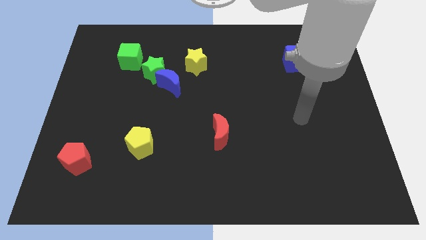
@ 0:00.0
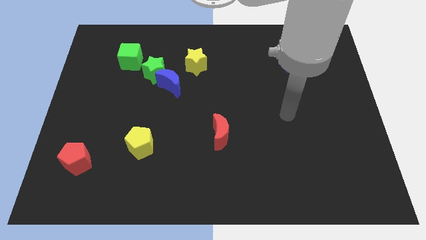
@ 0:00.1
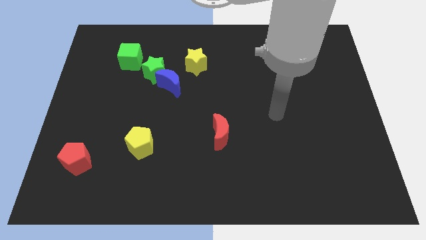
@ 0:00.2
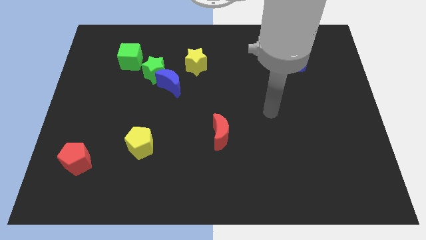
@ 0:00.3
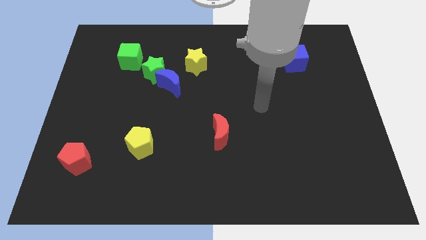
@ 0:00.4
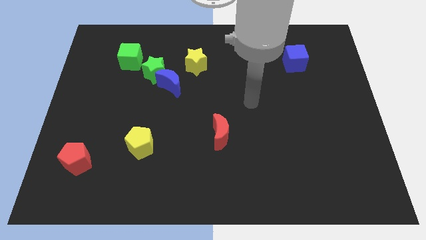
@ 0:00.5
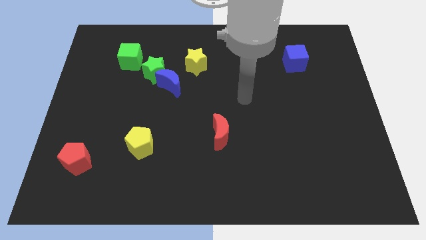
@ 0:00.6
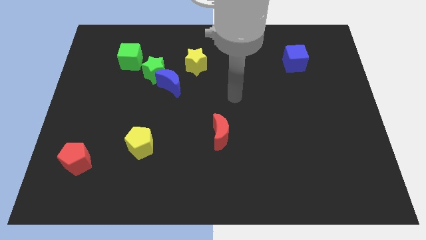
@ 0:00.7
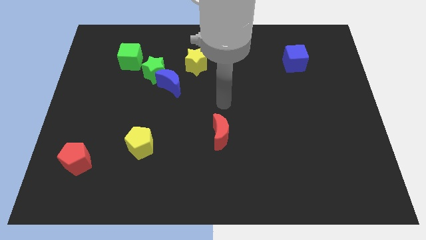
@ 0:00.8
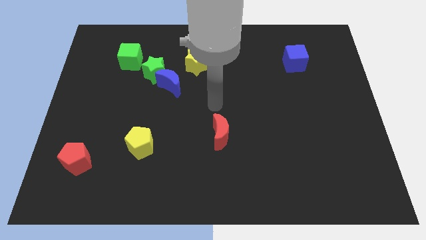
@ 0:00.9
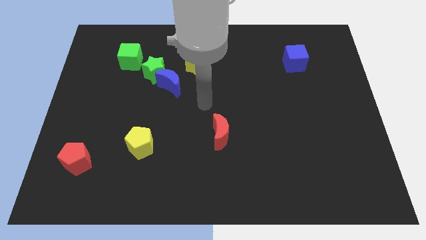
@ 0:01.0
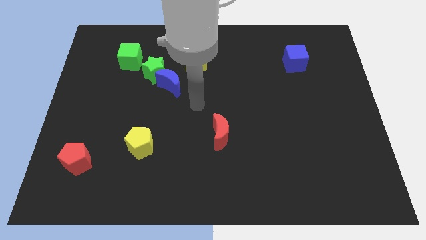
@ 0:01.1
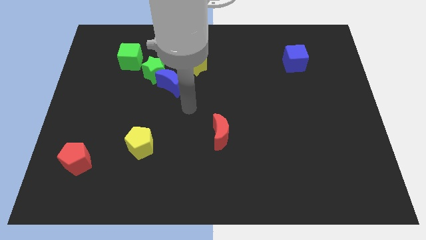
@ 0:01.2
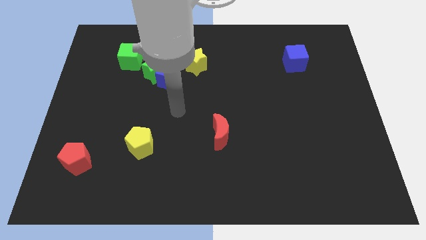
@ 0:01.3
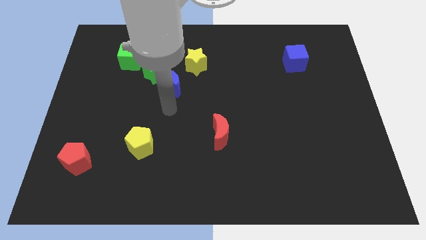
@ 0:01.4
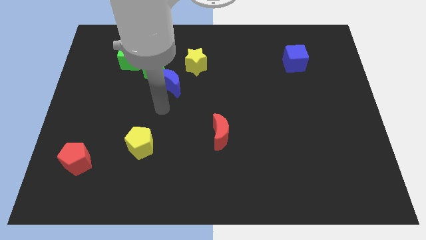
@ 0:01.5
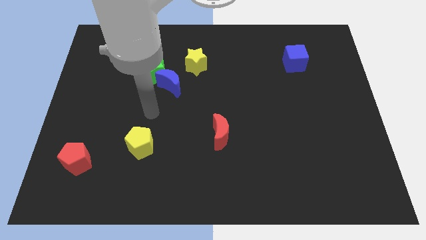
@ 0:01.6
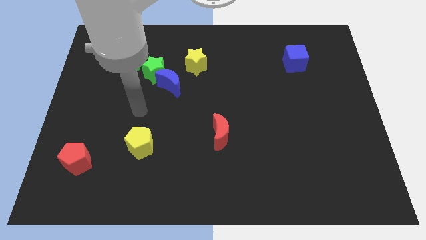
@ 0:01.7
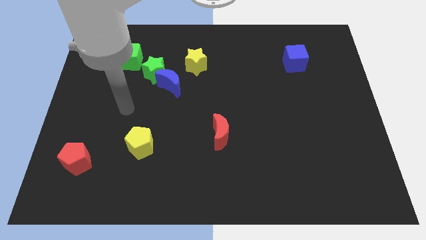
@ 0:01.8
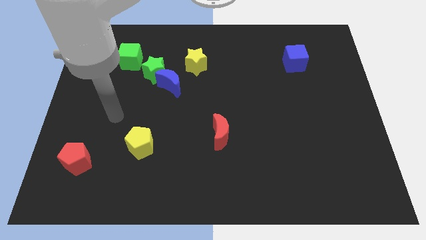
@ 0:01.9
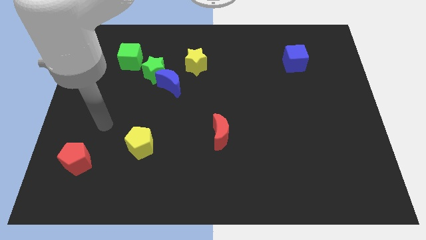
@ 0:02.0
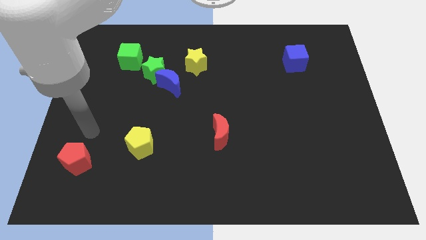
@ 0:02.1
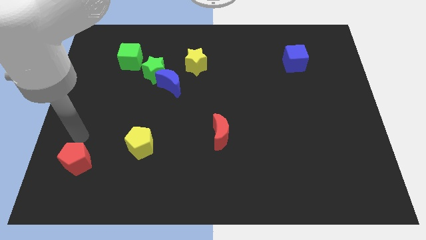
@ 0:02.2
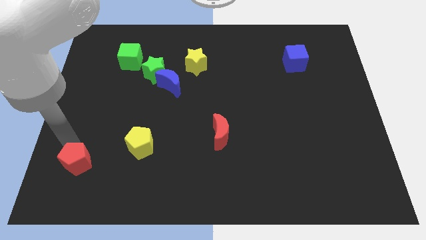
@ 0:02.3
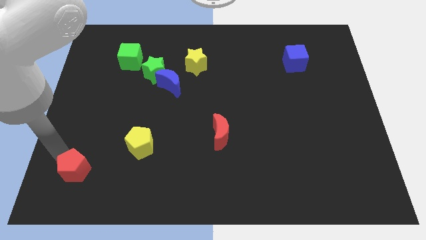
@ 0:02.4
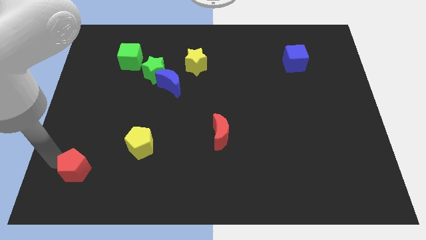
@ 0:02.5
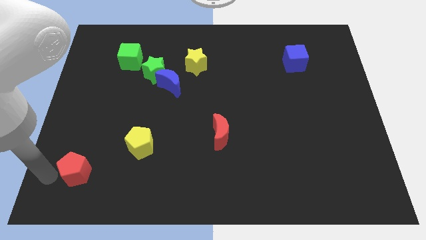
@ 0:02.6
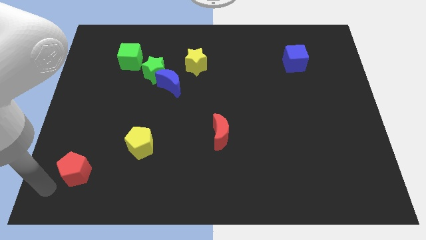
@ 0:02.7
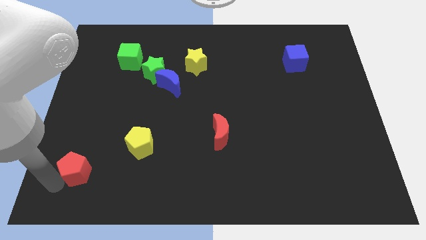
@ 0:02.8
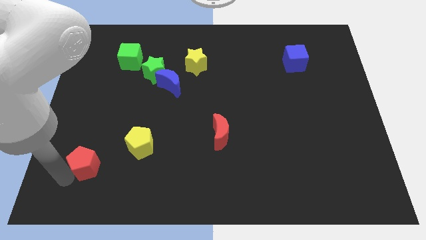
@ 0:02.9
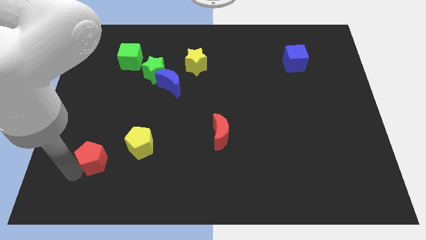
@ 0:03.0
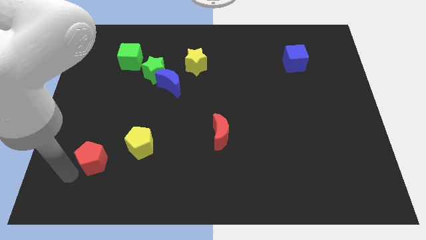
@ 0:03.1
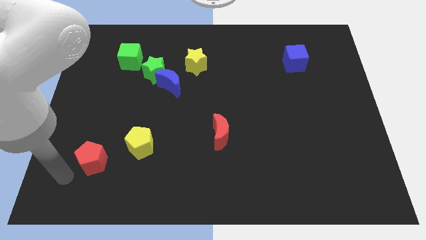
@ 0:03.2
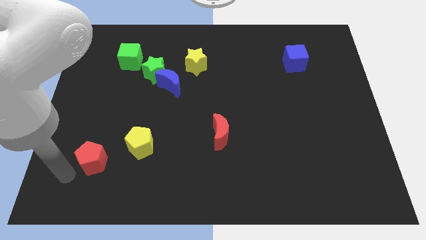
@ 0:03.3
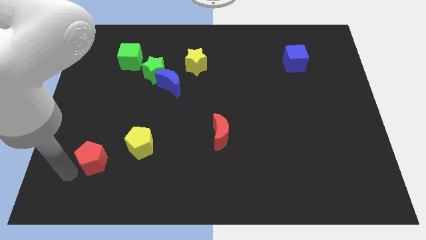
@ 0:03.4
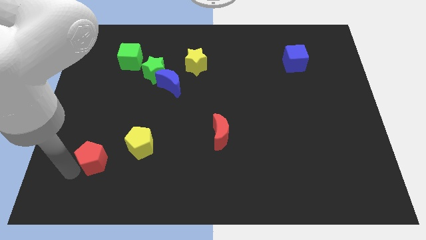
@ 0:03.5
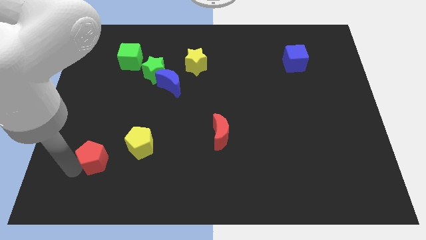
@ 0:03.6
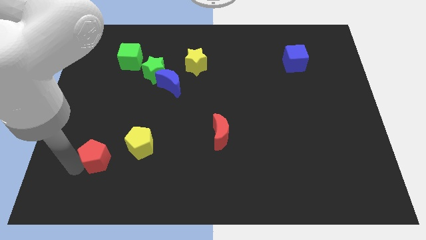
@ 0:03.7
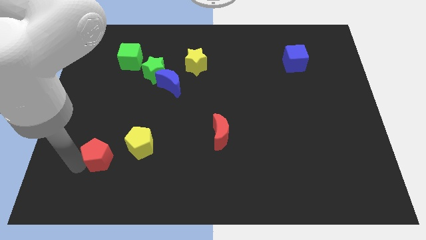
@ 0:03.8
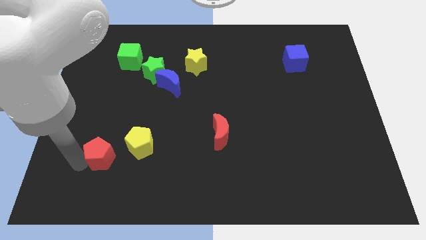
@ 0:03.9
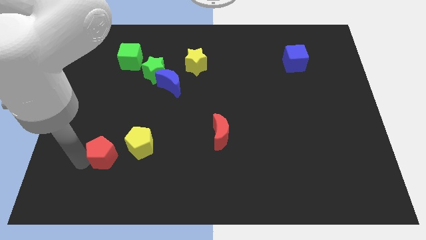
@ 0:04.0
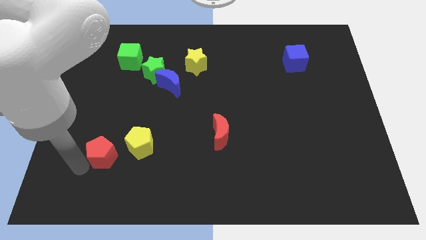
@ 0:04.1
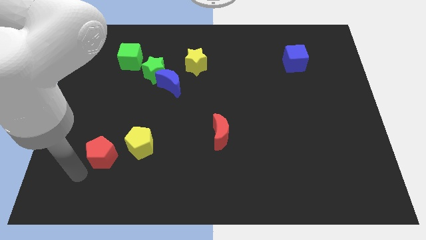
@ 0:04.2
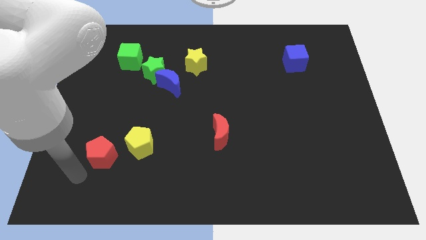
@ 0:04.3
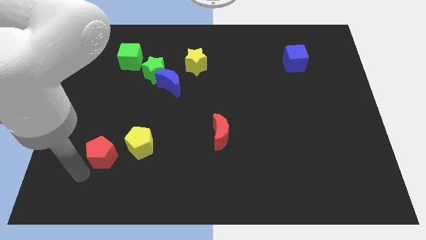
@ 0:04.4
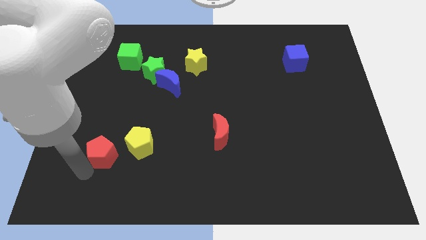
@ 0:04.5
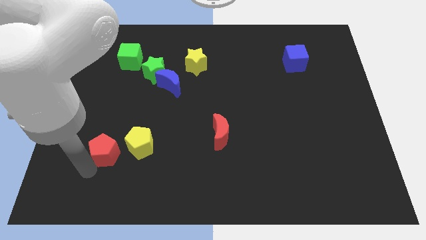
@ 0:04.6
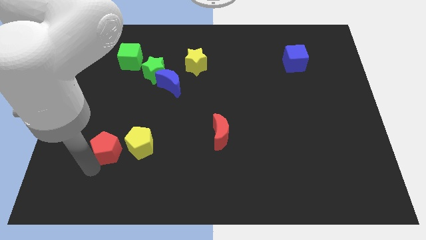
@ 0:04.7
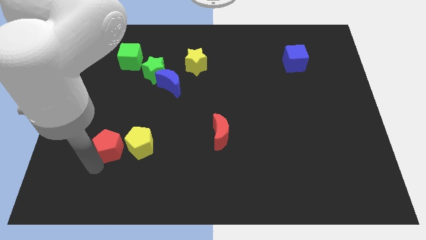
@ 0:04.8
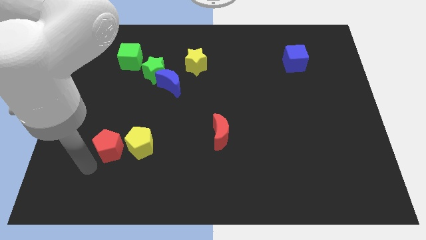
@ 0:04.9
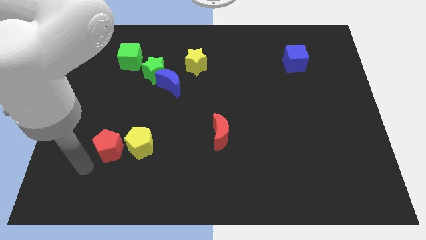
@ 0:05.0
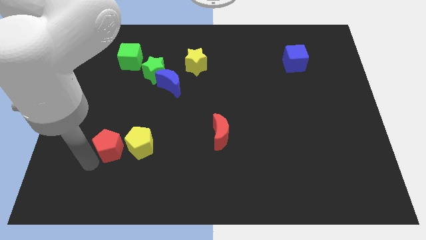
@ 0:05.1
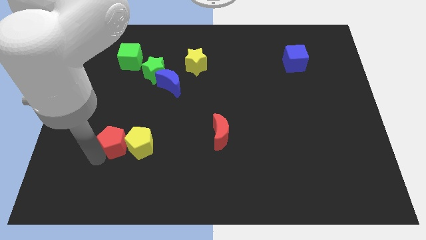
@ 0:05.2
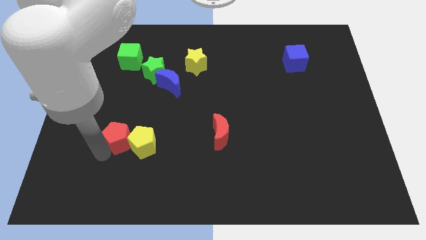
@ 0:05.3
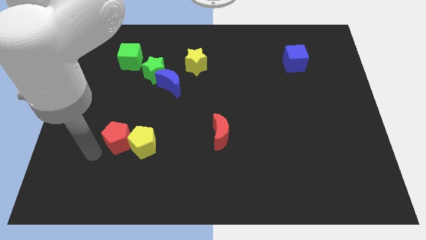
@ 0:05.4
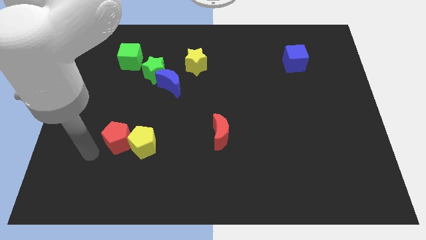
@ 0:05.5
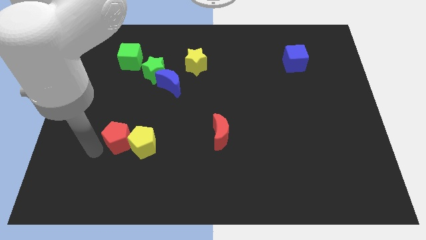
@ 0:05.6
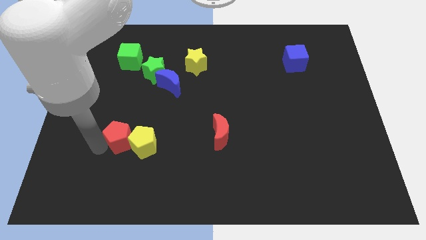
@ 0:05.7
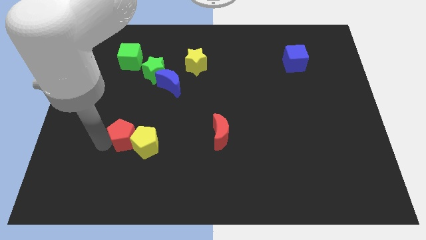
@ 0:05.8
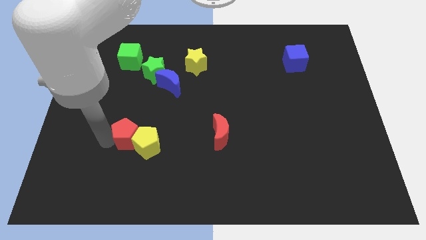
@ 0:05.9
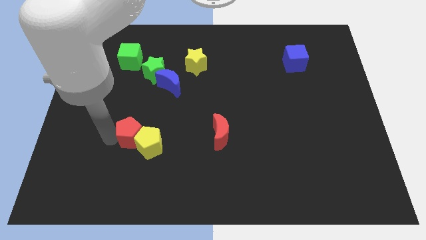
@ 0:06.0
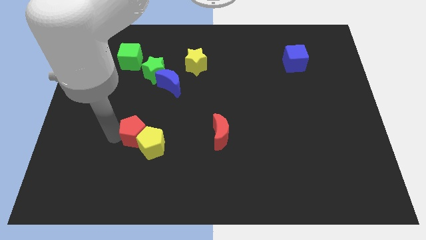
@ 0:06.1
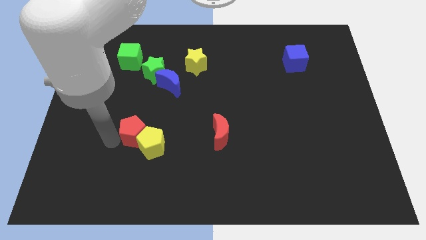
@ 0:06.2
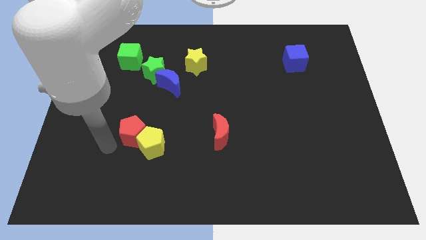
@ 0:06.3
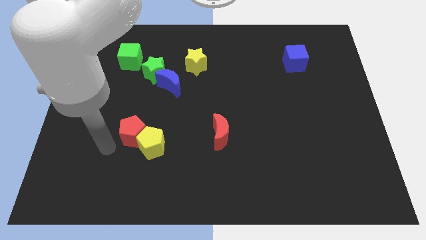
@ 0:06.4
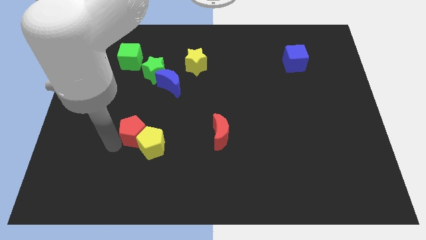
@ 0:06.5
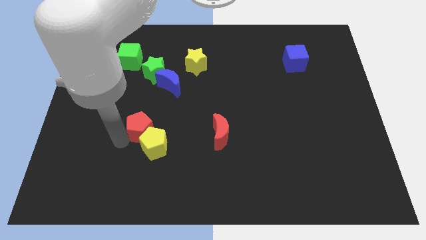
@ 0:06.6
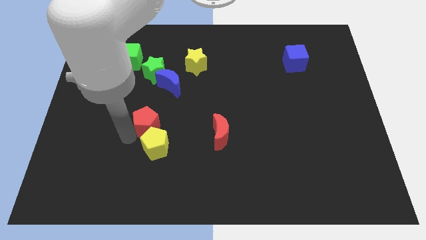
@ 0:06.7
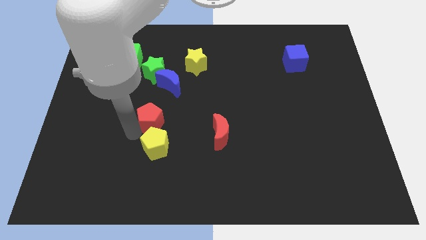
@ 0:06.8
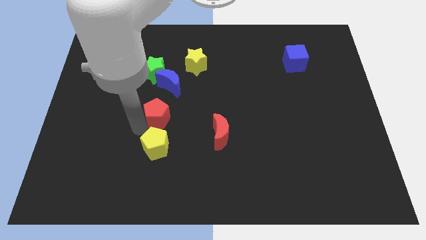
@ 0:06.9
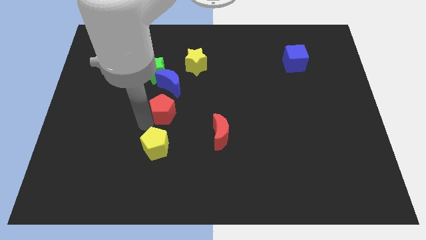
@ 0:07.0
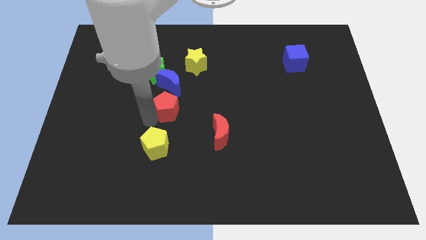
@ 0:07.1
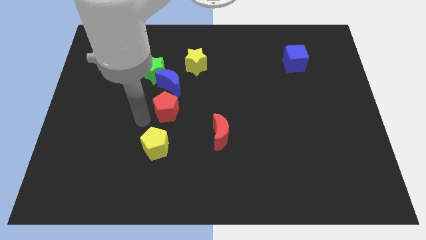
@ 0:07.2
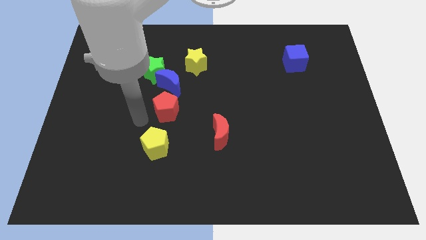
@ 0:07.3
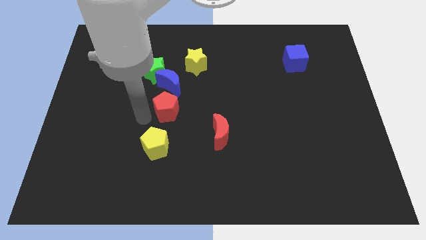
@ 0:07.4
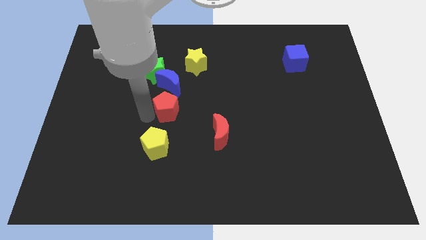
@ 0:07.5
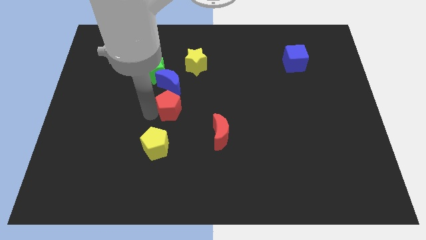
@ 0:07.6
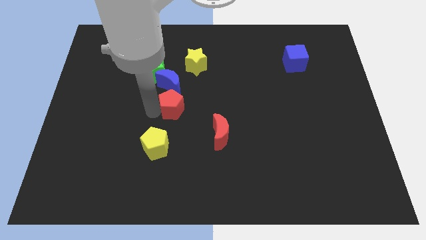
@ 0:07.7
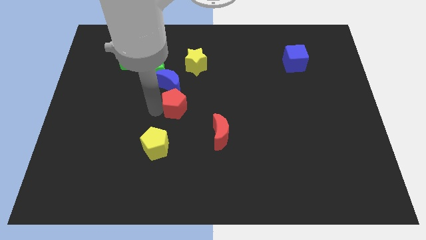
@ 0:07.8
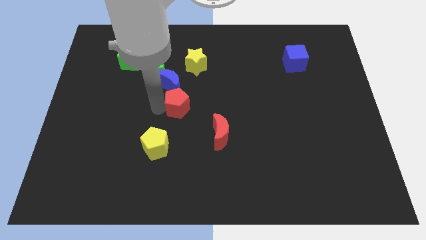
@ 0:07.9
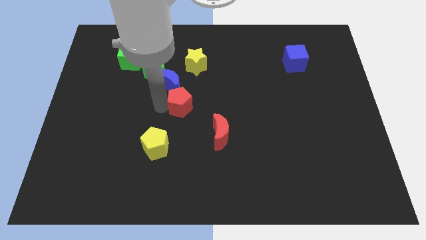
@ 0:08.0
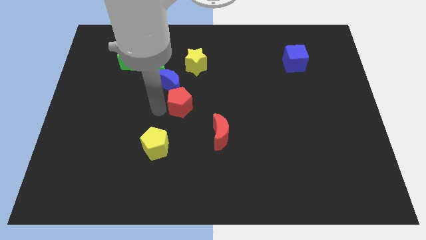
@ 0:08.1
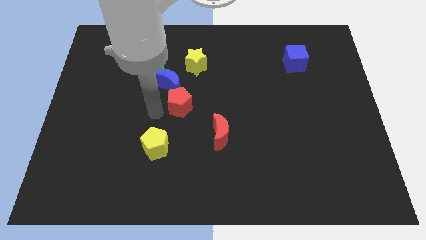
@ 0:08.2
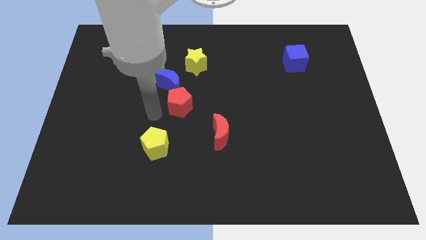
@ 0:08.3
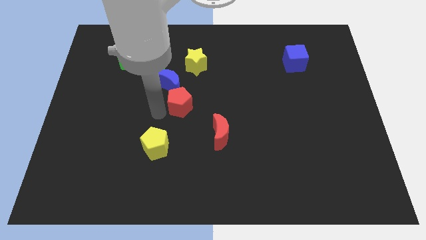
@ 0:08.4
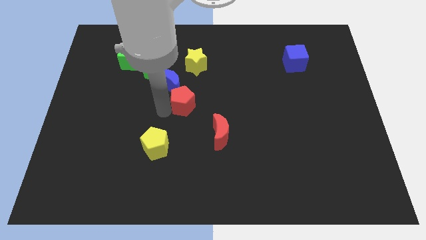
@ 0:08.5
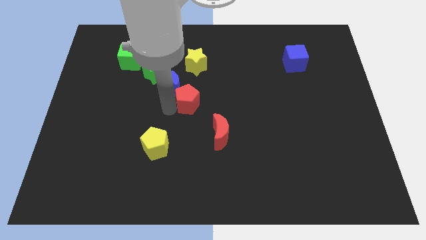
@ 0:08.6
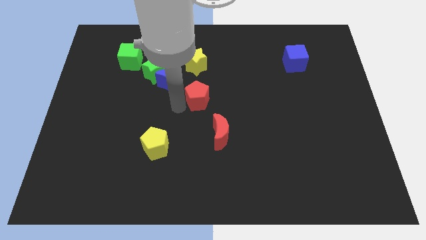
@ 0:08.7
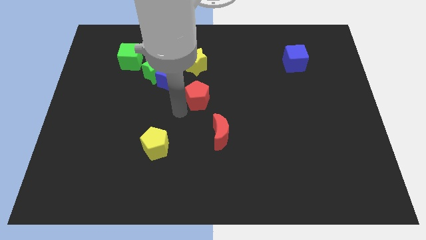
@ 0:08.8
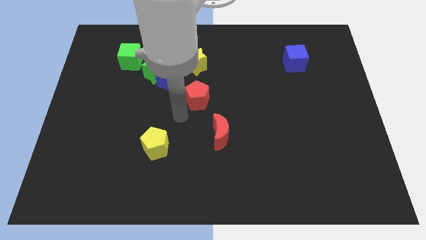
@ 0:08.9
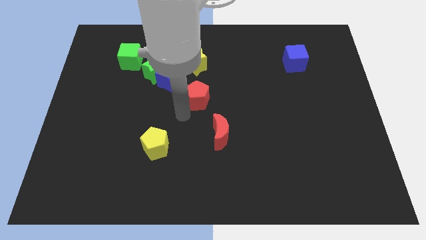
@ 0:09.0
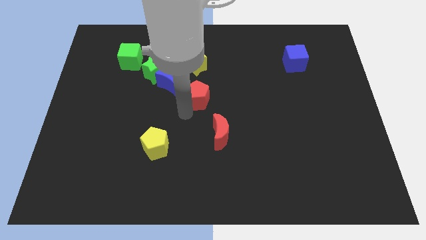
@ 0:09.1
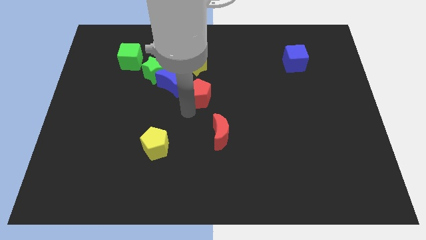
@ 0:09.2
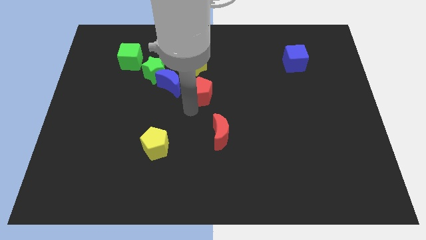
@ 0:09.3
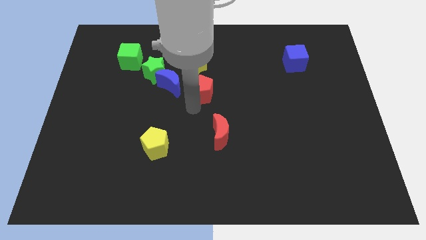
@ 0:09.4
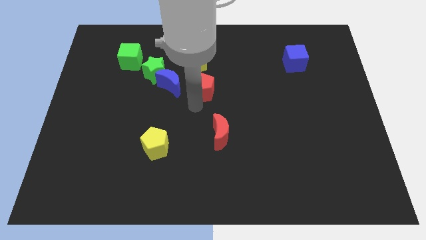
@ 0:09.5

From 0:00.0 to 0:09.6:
push the red pentagon to the bottom right of the yellow star
